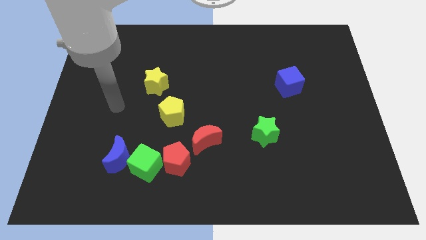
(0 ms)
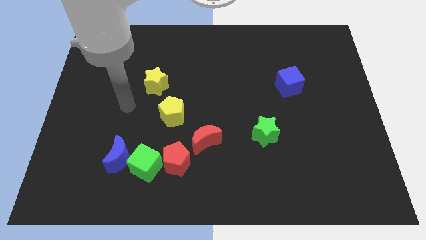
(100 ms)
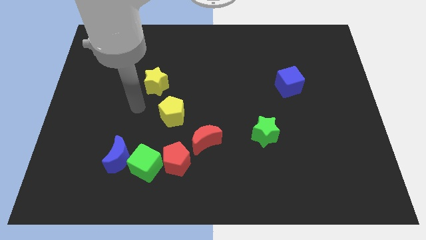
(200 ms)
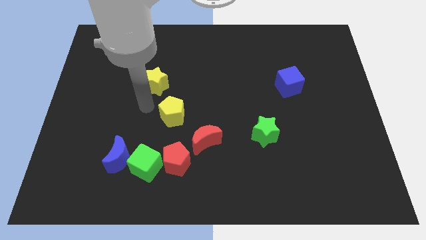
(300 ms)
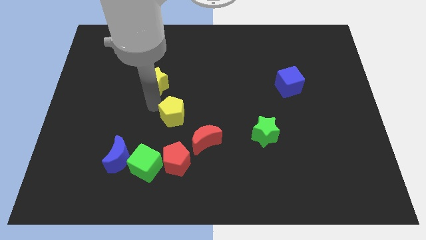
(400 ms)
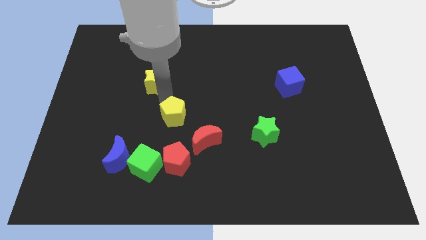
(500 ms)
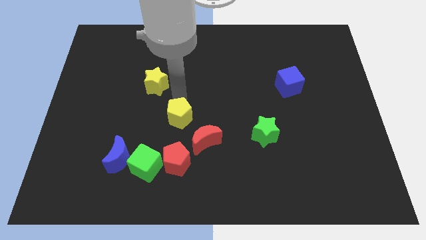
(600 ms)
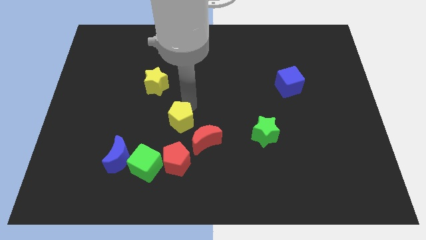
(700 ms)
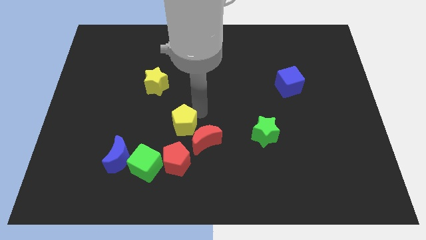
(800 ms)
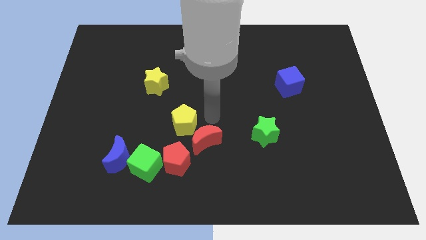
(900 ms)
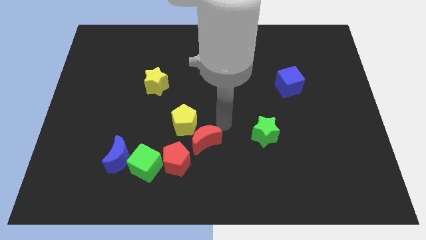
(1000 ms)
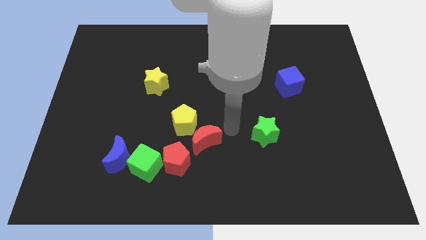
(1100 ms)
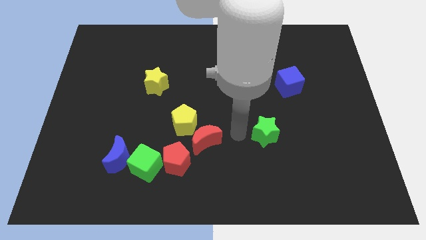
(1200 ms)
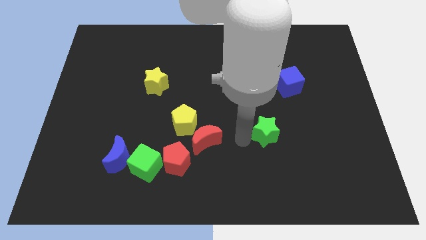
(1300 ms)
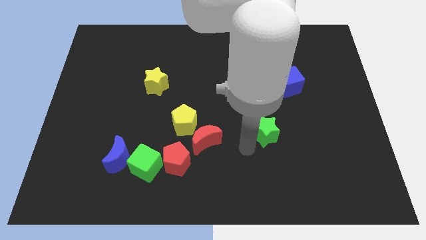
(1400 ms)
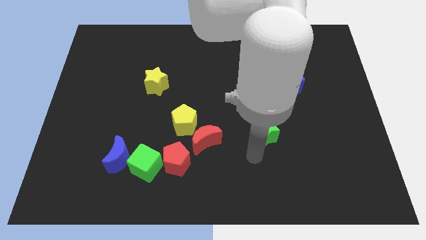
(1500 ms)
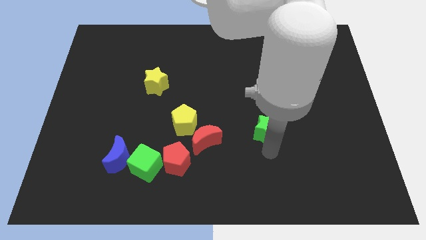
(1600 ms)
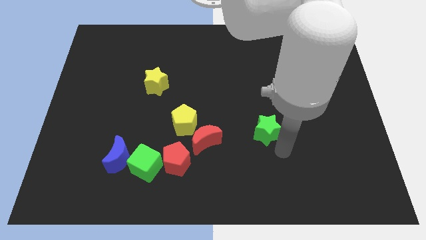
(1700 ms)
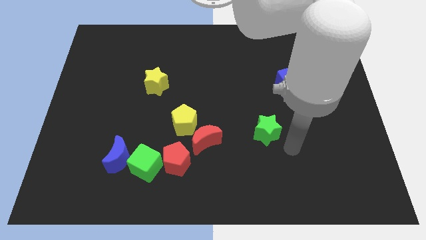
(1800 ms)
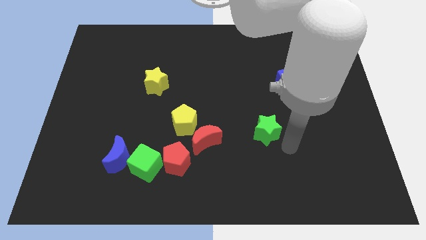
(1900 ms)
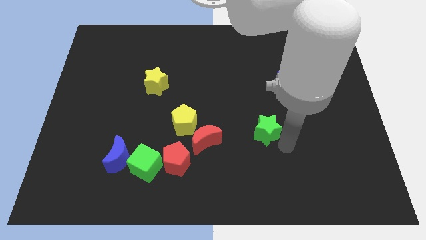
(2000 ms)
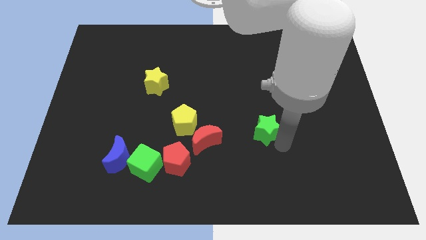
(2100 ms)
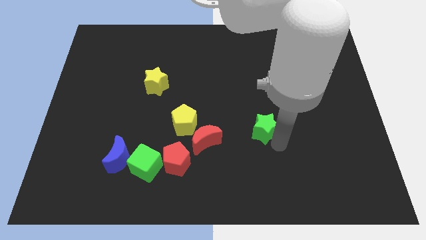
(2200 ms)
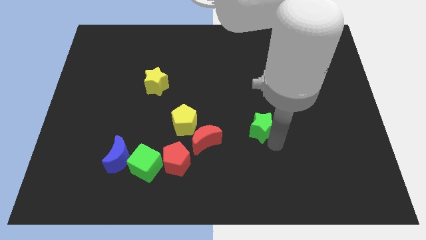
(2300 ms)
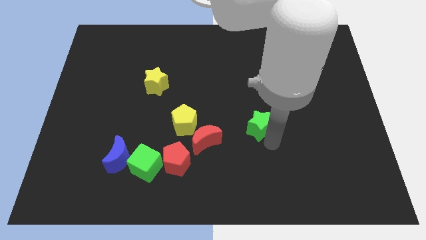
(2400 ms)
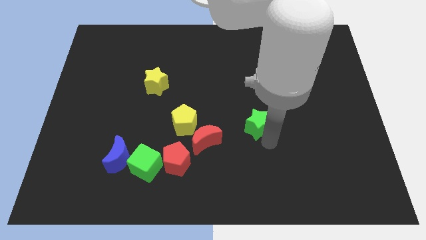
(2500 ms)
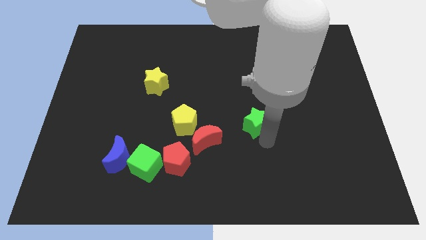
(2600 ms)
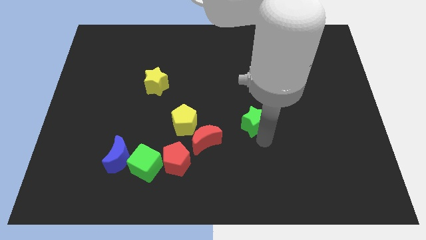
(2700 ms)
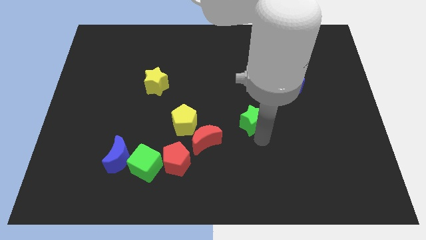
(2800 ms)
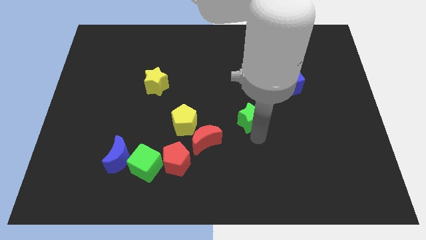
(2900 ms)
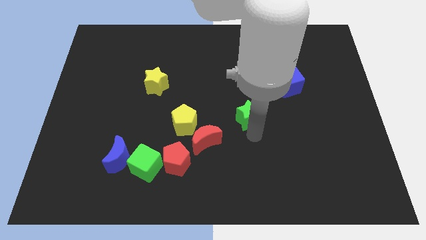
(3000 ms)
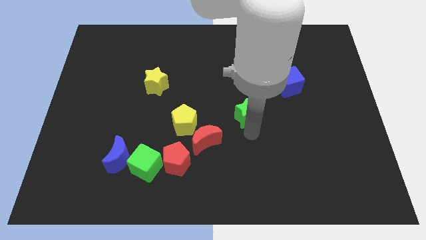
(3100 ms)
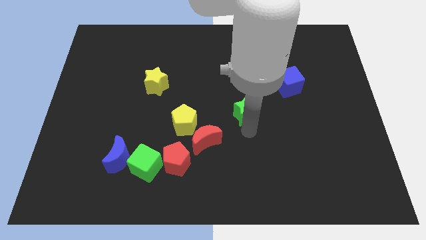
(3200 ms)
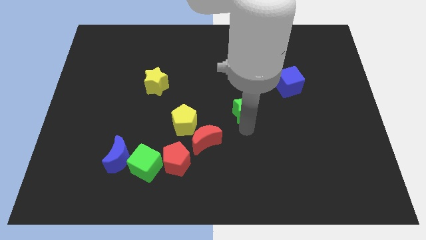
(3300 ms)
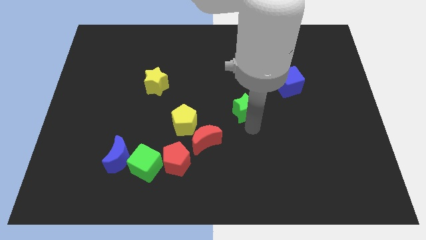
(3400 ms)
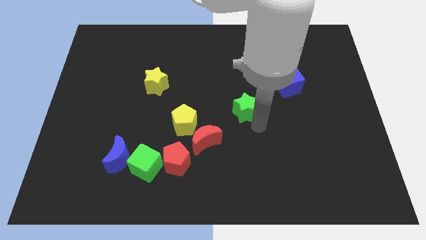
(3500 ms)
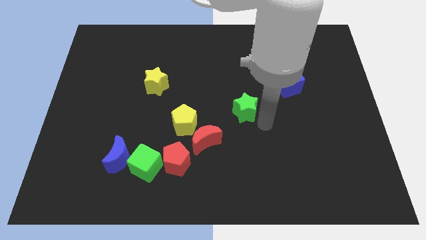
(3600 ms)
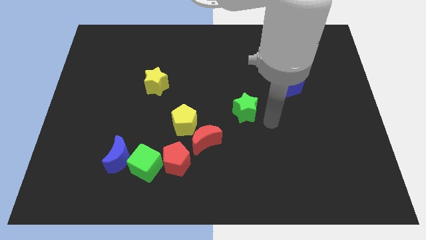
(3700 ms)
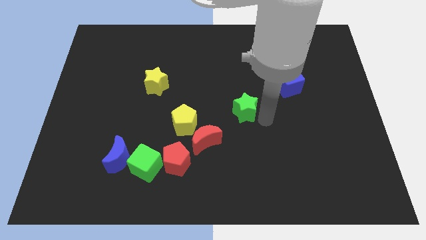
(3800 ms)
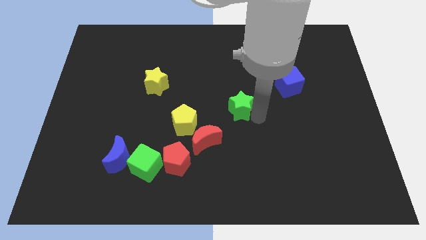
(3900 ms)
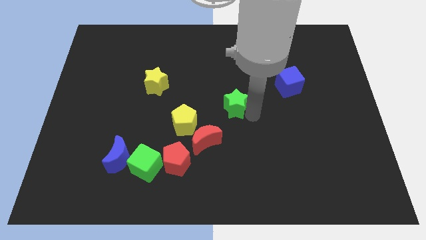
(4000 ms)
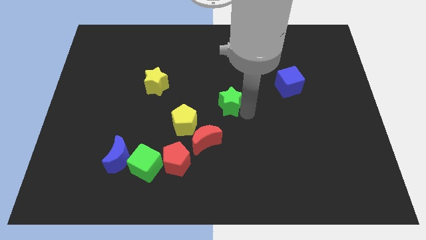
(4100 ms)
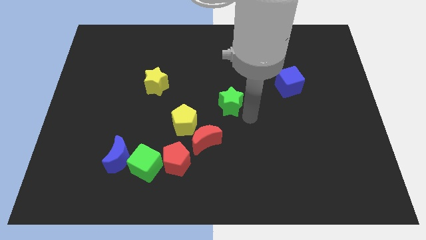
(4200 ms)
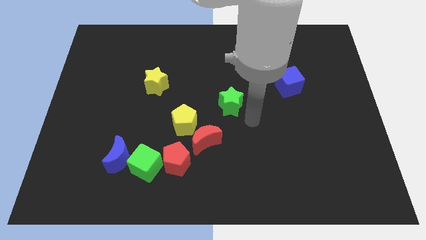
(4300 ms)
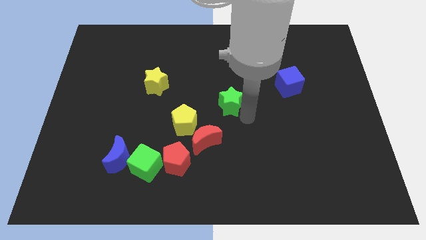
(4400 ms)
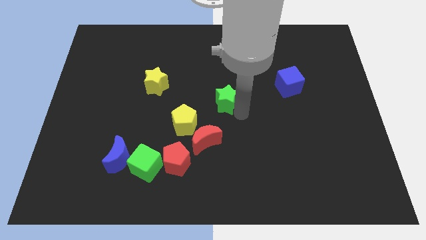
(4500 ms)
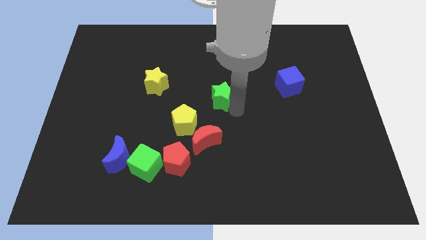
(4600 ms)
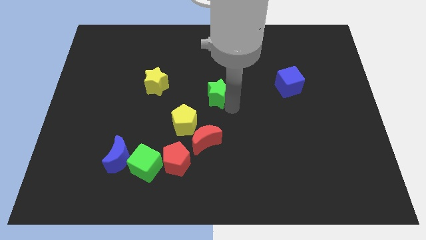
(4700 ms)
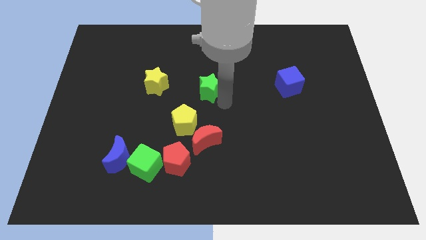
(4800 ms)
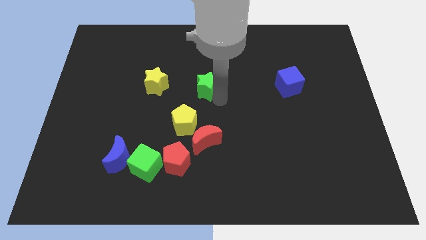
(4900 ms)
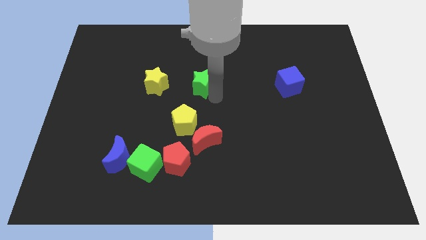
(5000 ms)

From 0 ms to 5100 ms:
push the green star upwards and then left

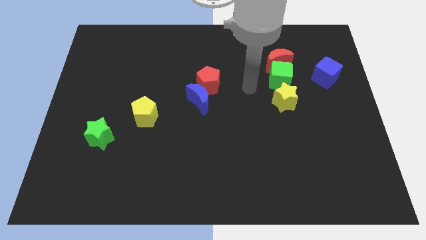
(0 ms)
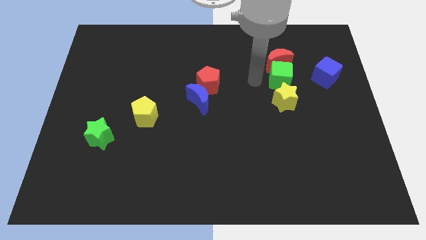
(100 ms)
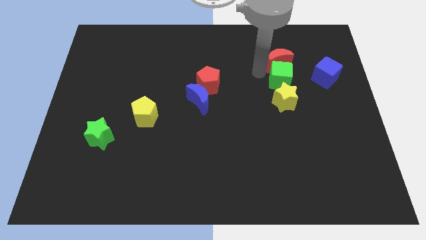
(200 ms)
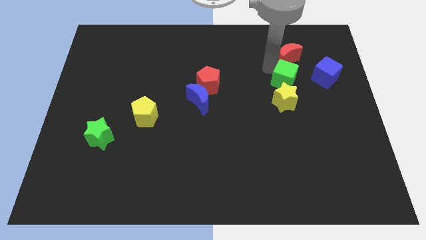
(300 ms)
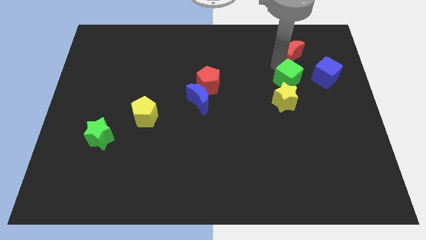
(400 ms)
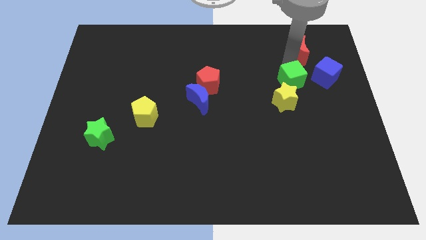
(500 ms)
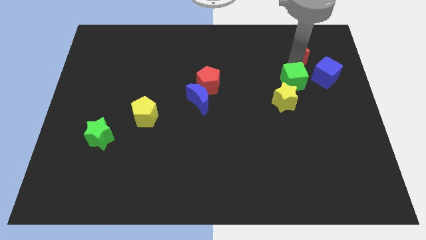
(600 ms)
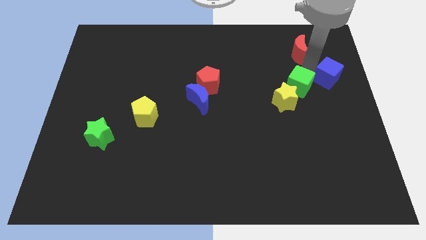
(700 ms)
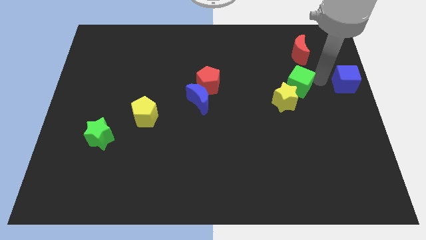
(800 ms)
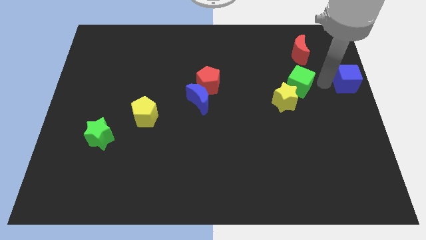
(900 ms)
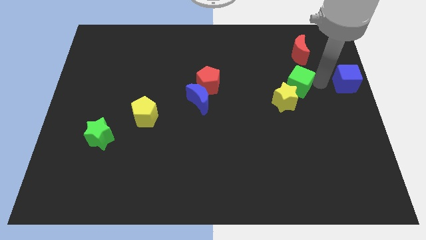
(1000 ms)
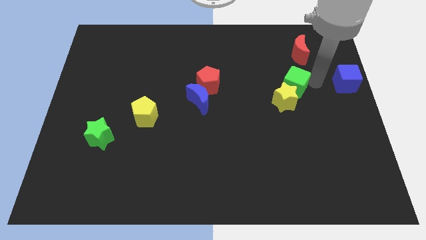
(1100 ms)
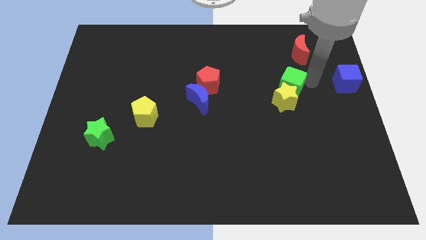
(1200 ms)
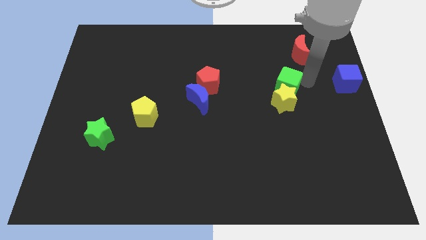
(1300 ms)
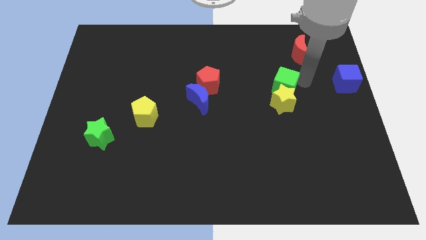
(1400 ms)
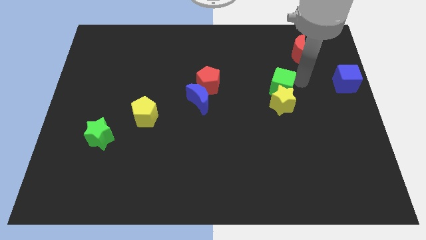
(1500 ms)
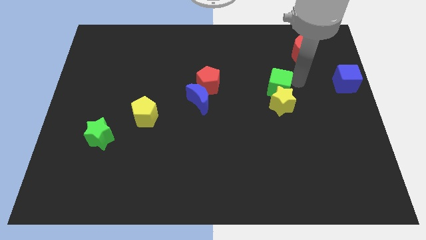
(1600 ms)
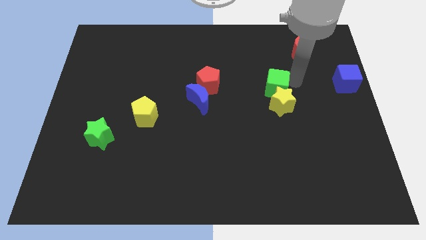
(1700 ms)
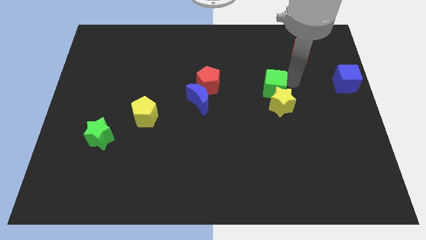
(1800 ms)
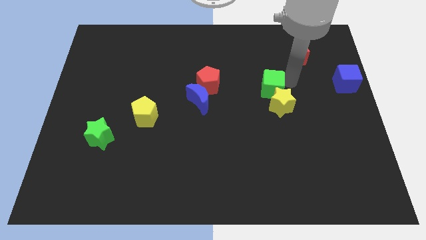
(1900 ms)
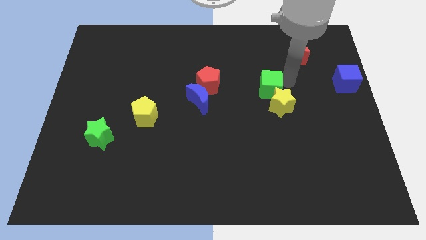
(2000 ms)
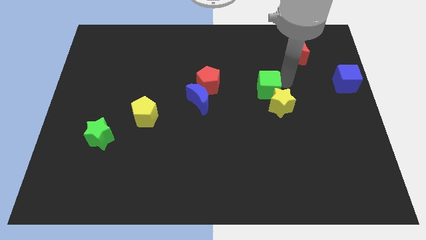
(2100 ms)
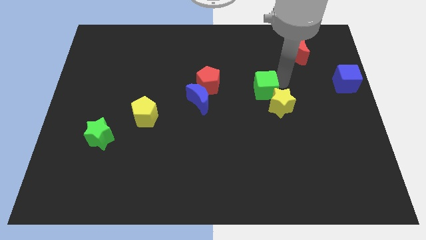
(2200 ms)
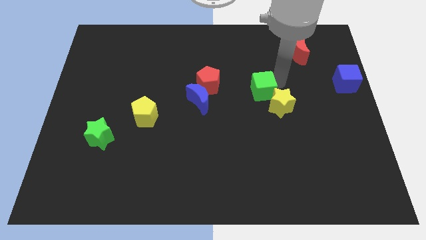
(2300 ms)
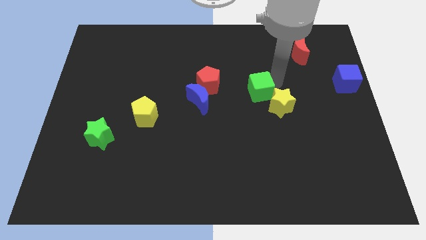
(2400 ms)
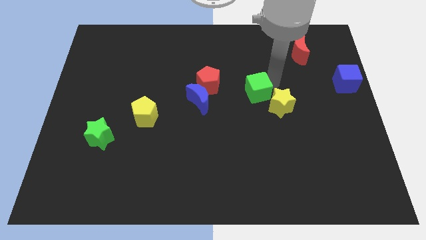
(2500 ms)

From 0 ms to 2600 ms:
push the green cube down and then to the left a little

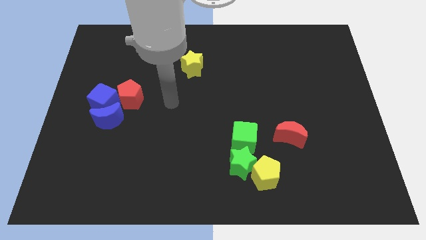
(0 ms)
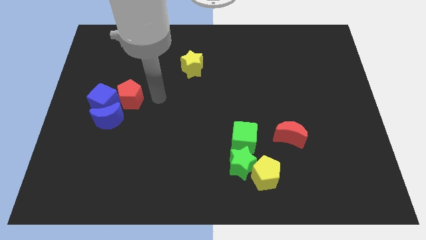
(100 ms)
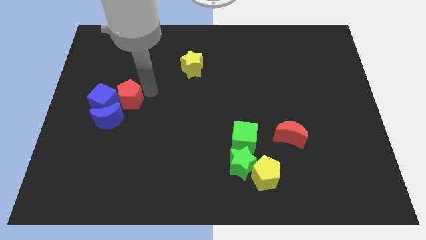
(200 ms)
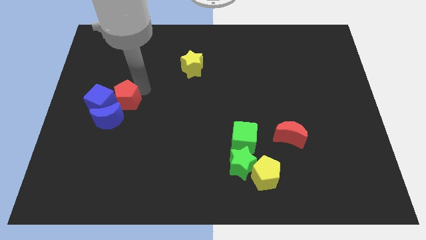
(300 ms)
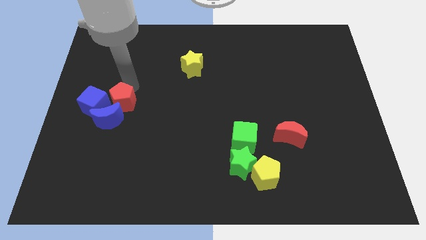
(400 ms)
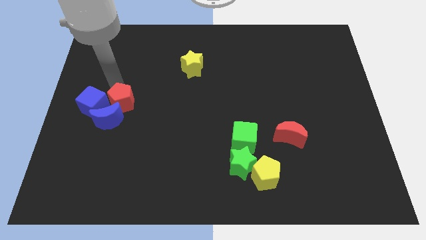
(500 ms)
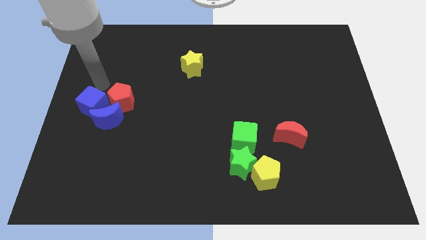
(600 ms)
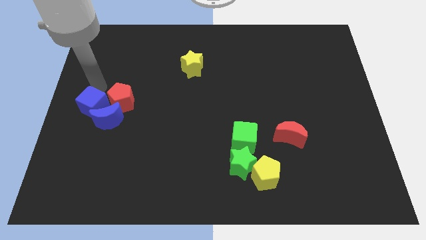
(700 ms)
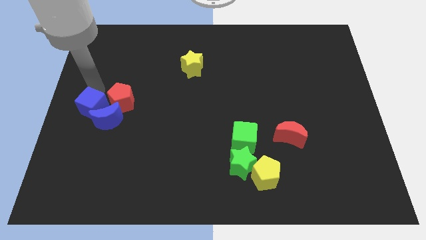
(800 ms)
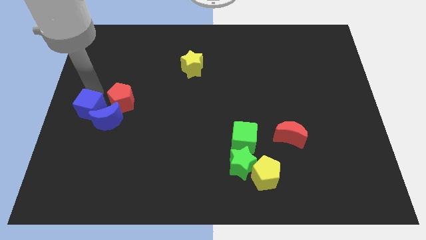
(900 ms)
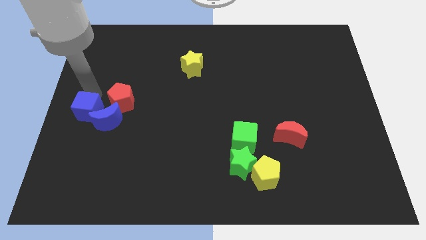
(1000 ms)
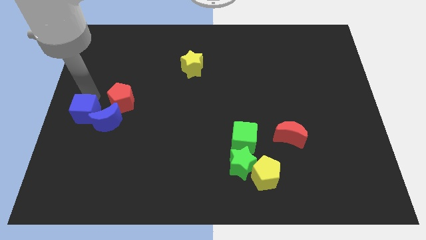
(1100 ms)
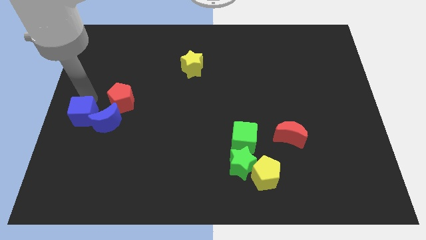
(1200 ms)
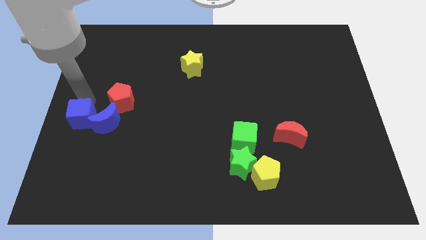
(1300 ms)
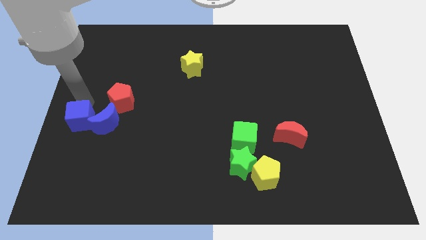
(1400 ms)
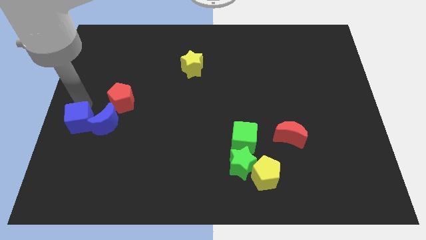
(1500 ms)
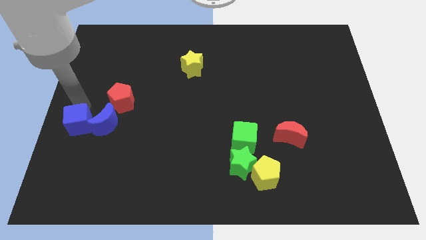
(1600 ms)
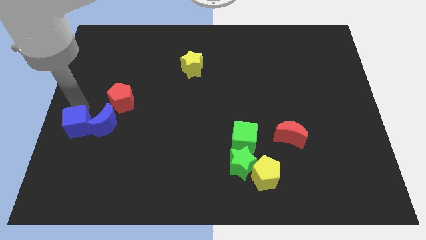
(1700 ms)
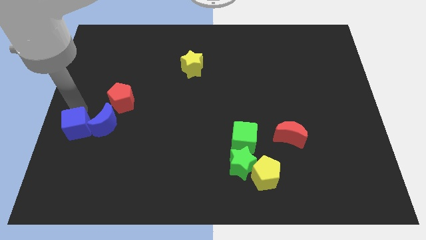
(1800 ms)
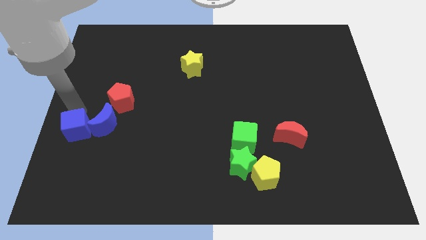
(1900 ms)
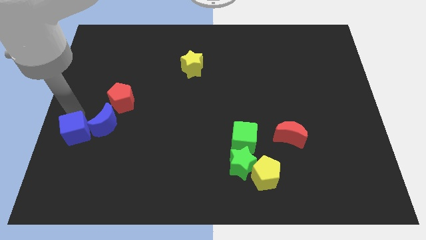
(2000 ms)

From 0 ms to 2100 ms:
slightly slide the blue cube down
